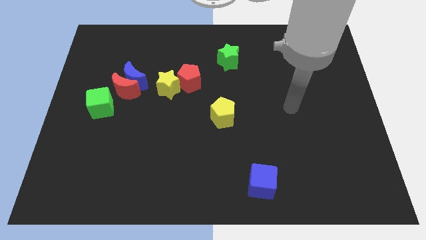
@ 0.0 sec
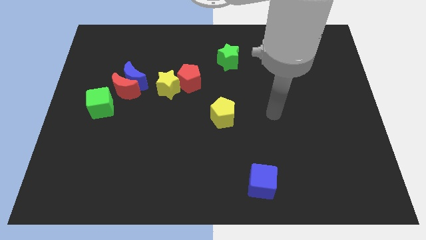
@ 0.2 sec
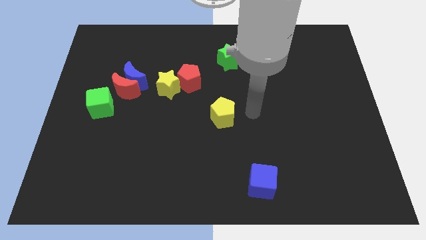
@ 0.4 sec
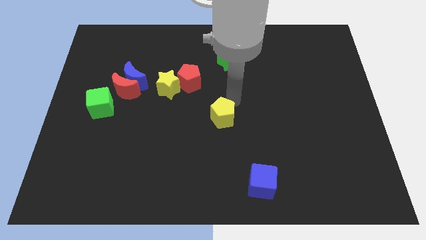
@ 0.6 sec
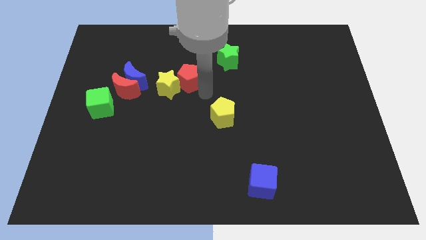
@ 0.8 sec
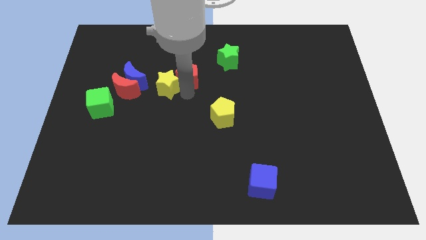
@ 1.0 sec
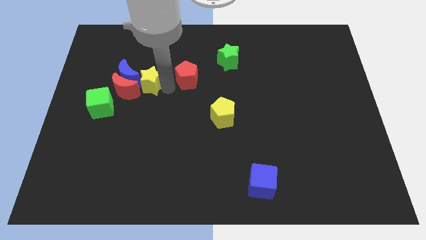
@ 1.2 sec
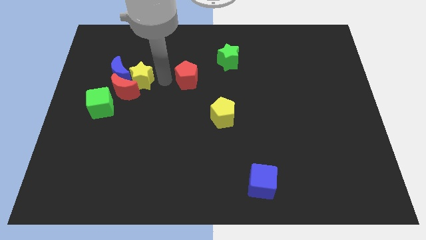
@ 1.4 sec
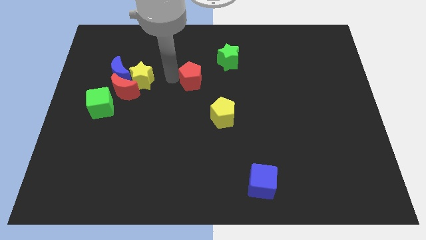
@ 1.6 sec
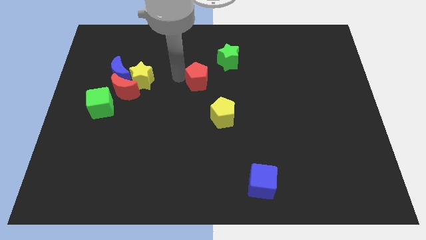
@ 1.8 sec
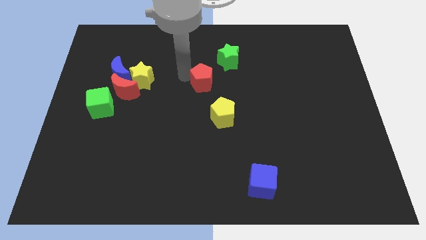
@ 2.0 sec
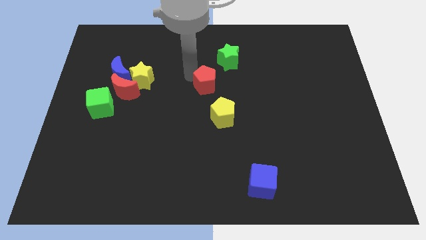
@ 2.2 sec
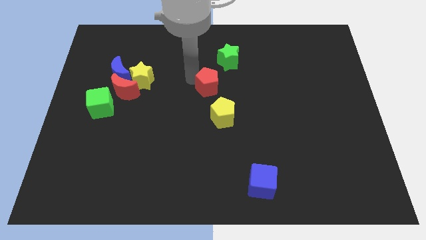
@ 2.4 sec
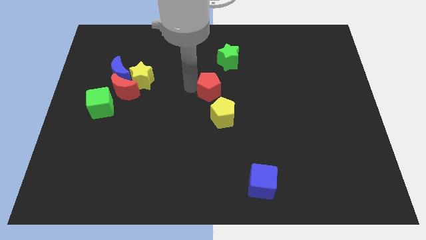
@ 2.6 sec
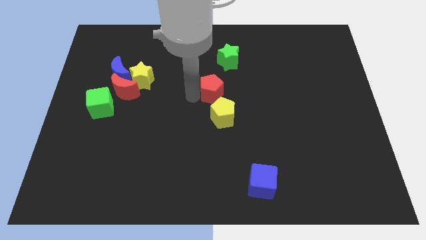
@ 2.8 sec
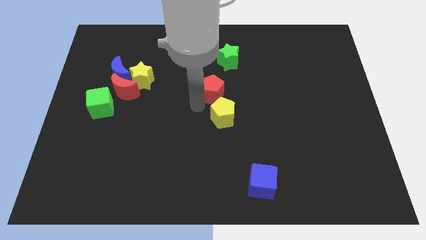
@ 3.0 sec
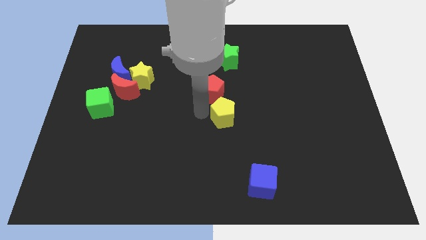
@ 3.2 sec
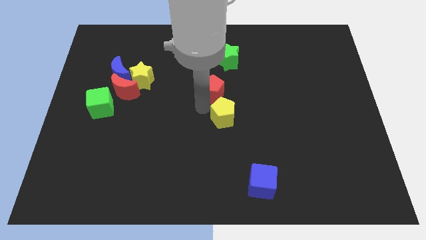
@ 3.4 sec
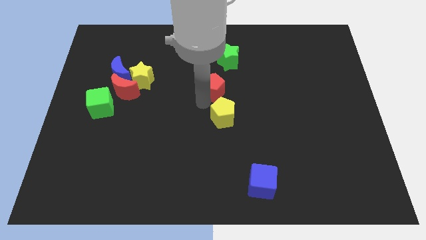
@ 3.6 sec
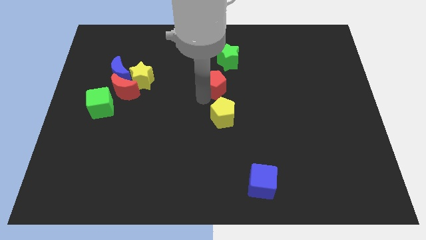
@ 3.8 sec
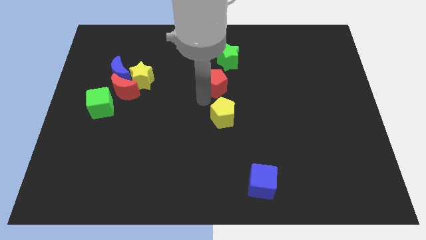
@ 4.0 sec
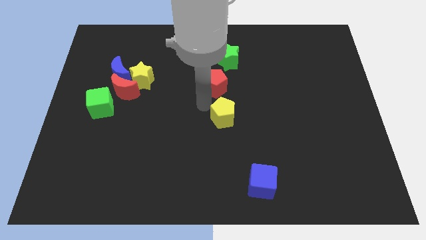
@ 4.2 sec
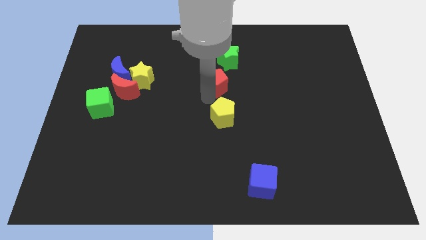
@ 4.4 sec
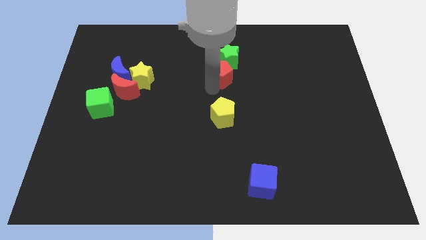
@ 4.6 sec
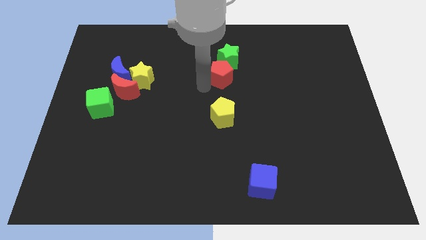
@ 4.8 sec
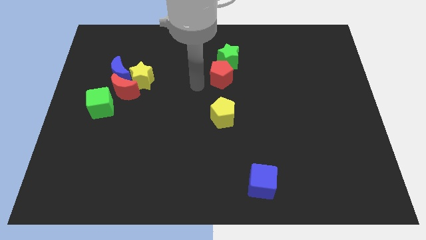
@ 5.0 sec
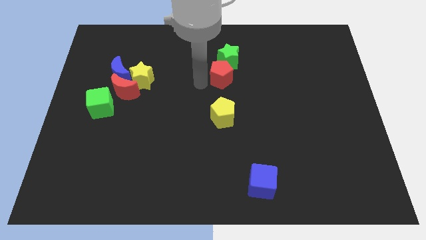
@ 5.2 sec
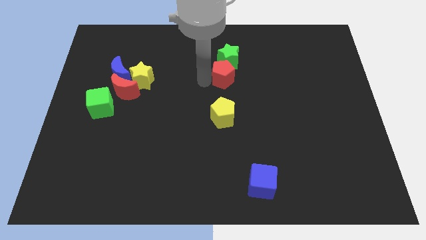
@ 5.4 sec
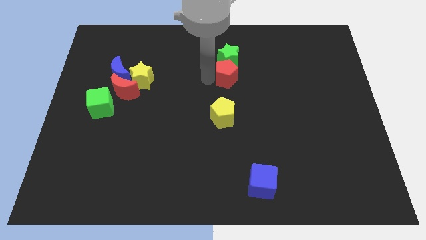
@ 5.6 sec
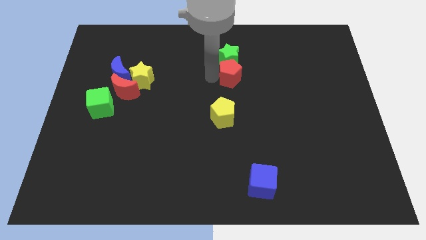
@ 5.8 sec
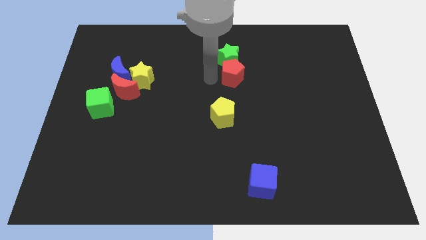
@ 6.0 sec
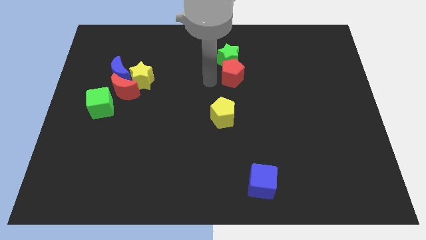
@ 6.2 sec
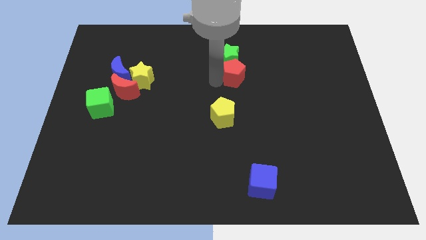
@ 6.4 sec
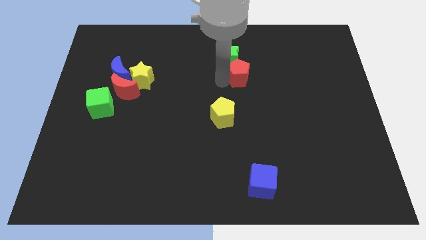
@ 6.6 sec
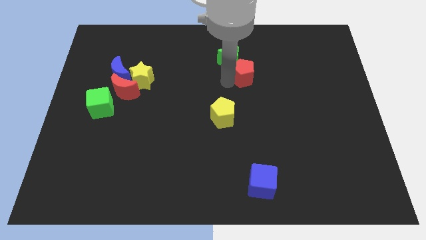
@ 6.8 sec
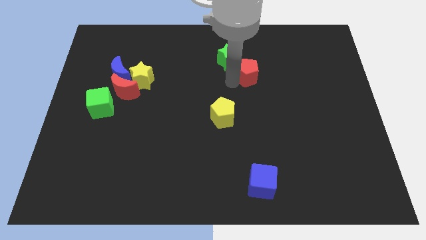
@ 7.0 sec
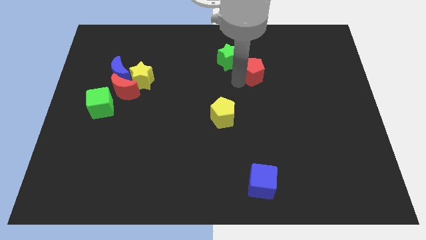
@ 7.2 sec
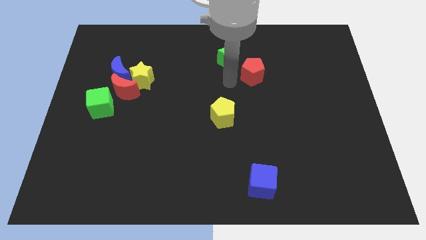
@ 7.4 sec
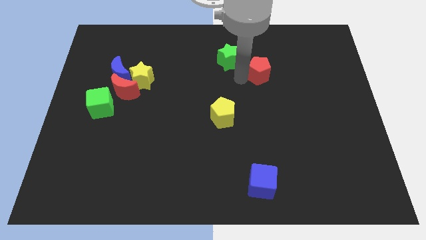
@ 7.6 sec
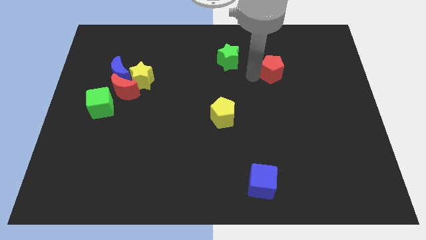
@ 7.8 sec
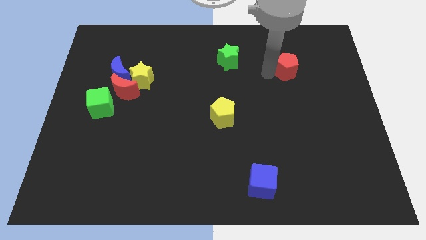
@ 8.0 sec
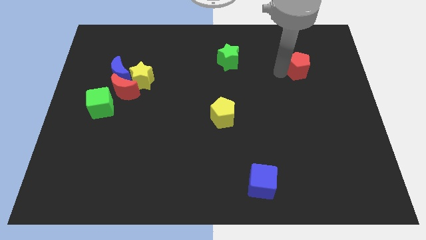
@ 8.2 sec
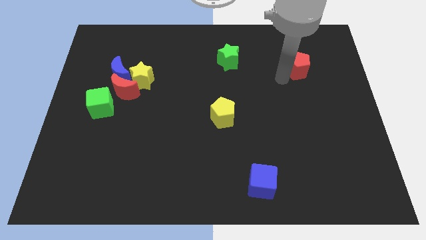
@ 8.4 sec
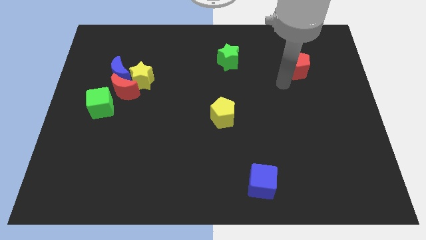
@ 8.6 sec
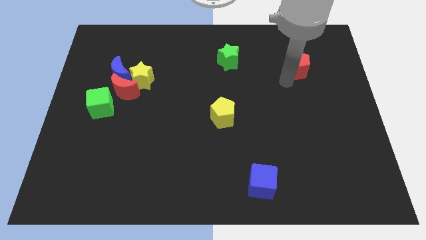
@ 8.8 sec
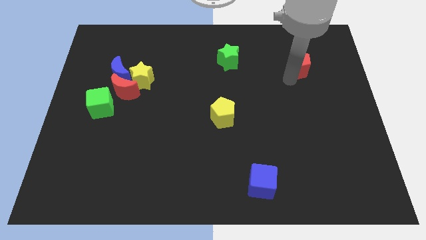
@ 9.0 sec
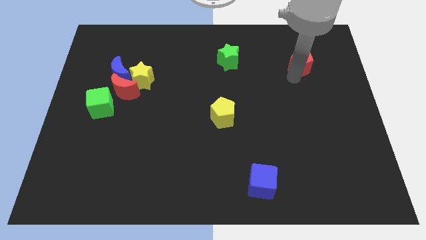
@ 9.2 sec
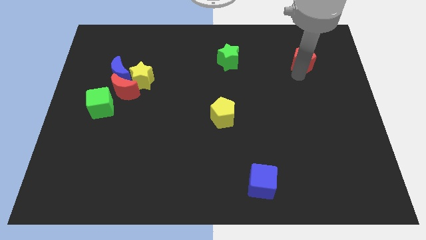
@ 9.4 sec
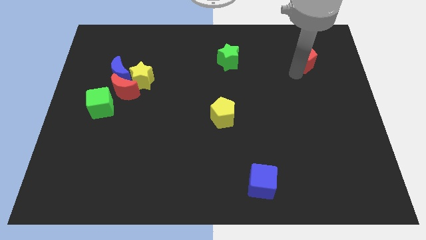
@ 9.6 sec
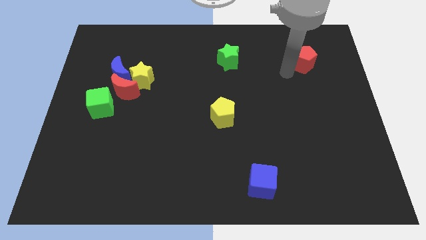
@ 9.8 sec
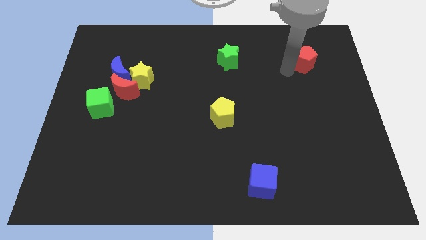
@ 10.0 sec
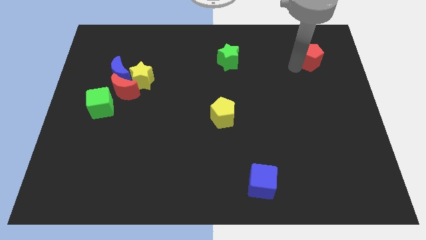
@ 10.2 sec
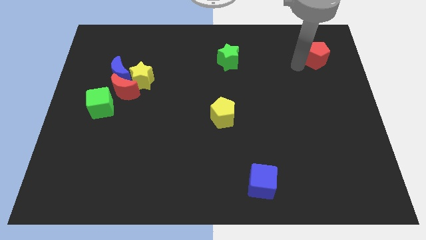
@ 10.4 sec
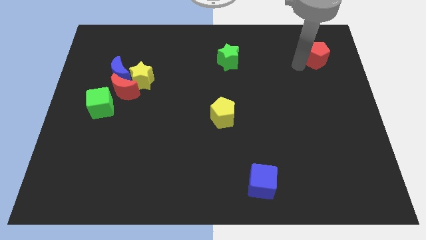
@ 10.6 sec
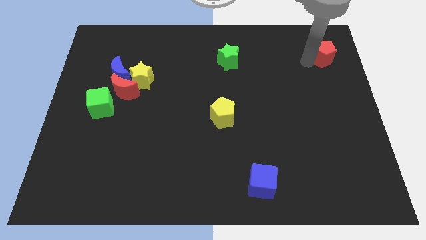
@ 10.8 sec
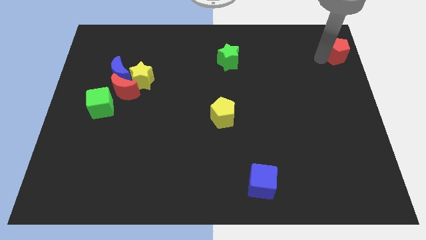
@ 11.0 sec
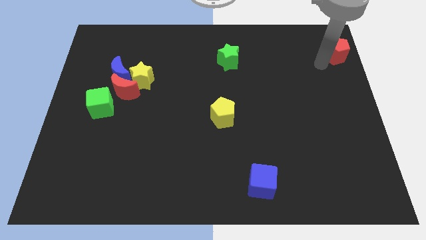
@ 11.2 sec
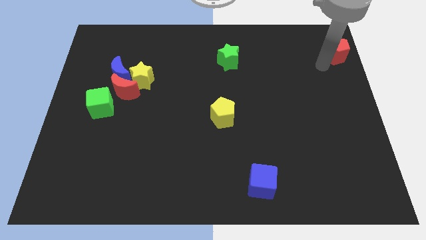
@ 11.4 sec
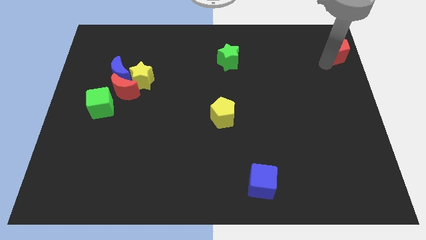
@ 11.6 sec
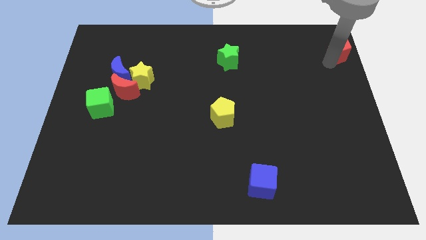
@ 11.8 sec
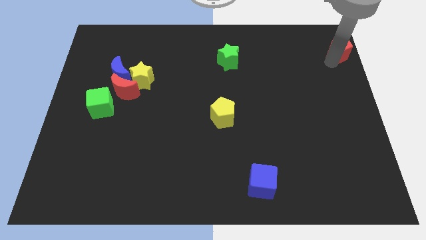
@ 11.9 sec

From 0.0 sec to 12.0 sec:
move the red pentagon to the top right corner
